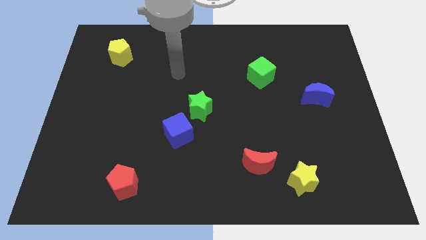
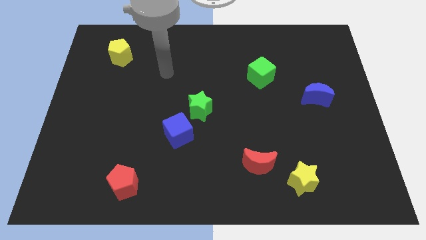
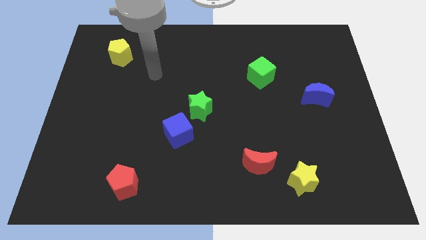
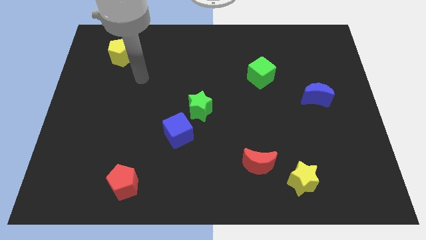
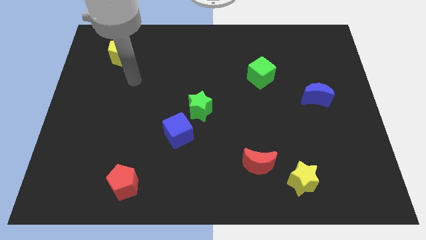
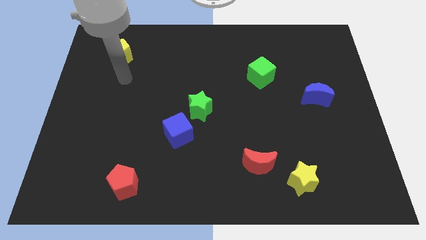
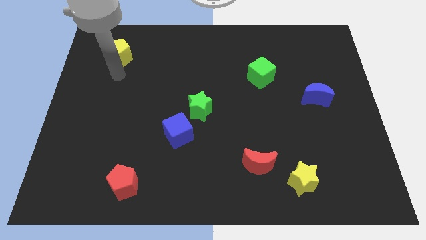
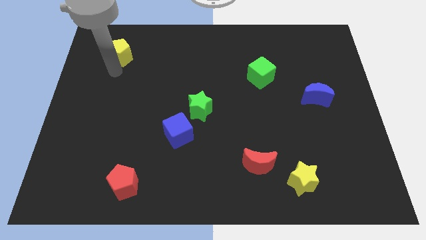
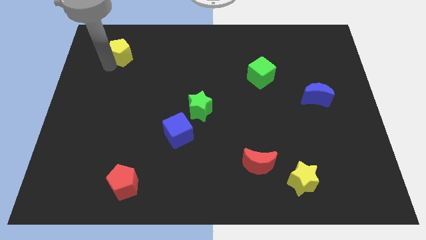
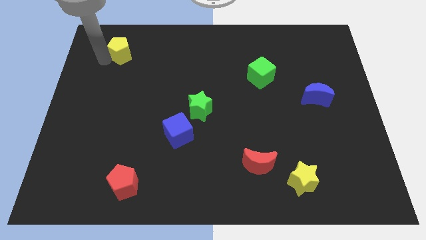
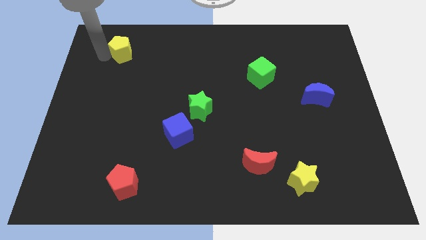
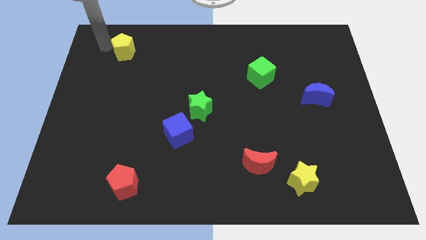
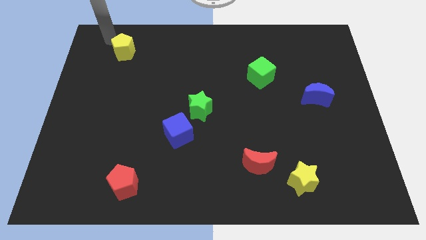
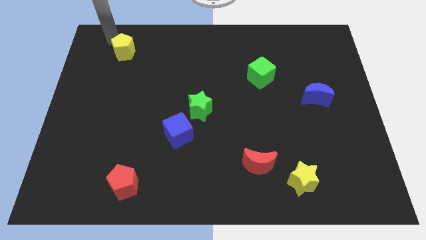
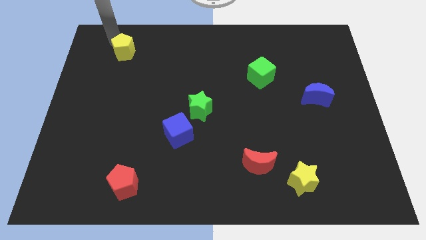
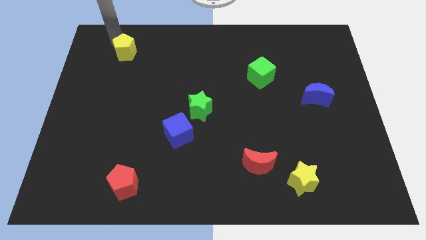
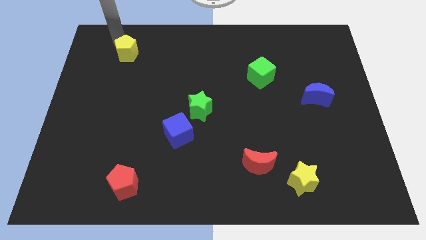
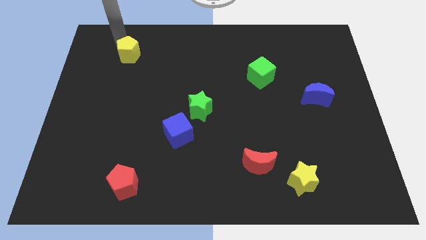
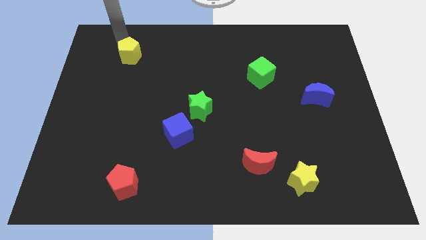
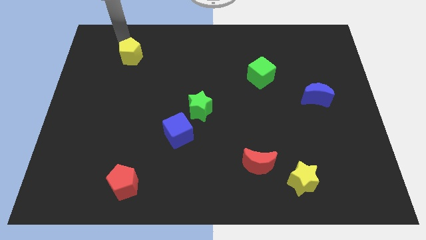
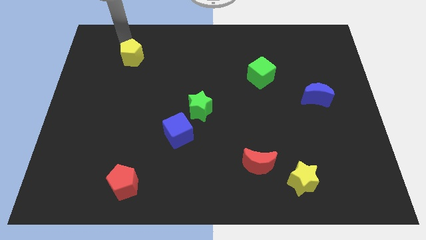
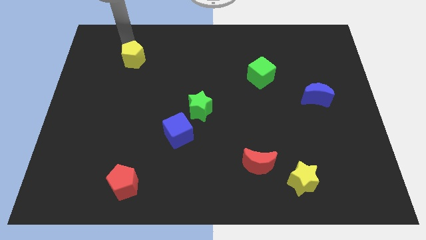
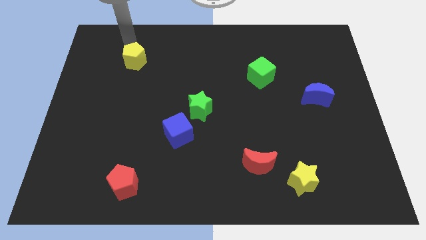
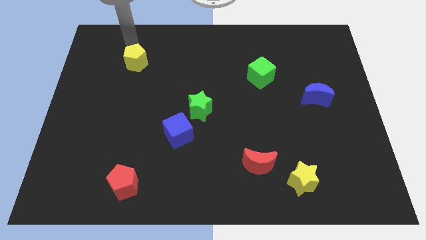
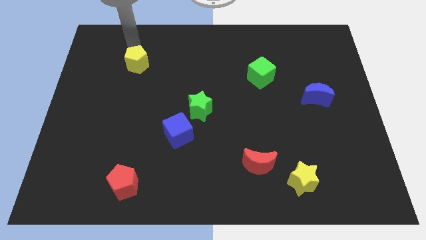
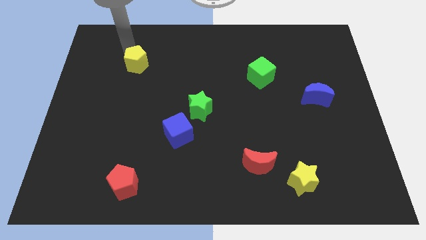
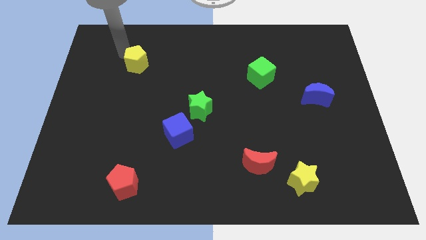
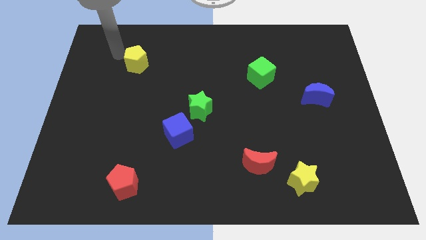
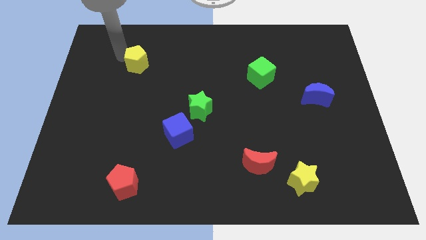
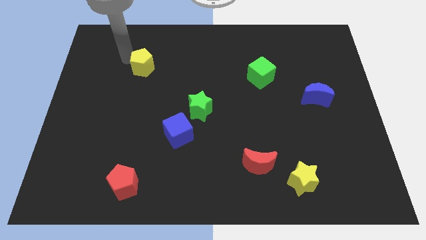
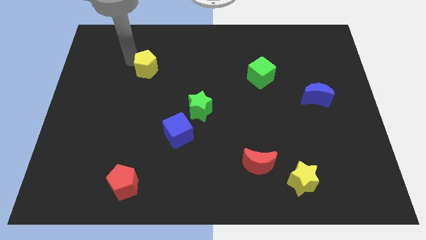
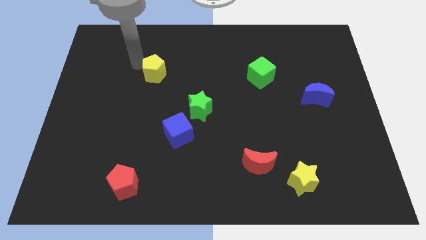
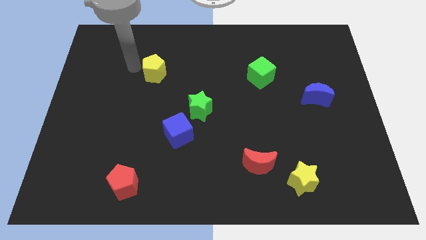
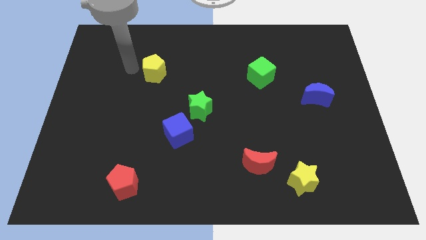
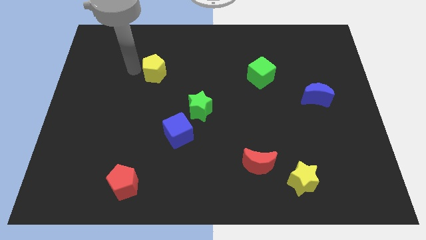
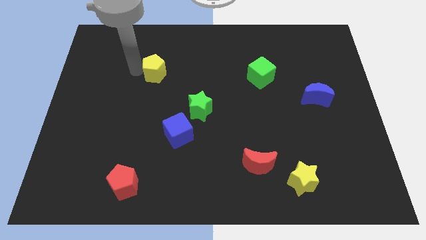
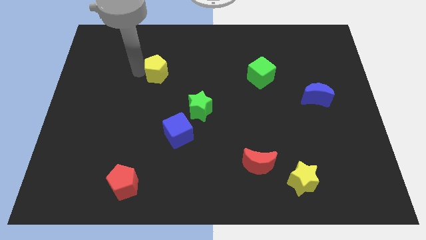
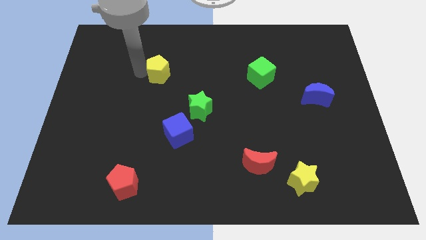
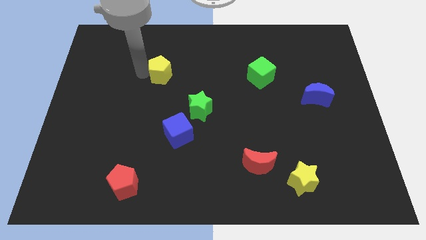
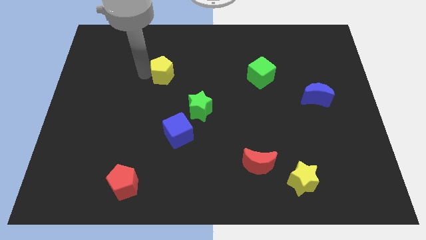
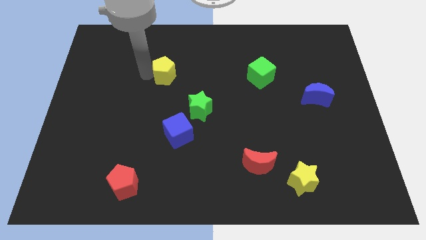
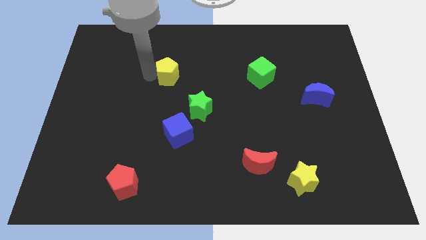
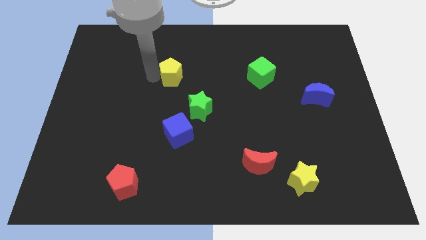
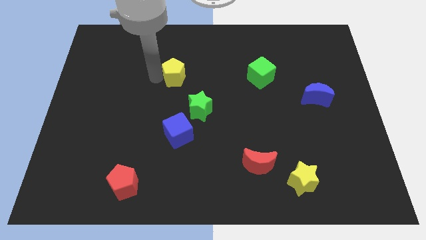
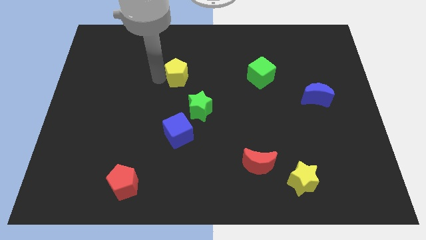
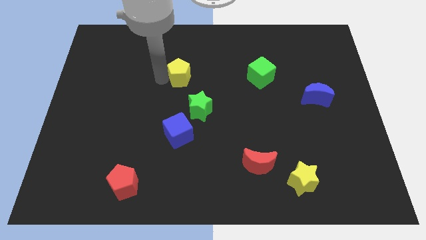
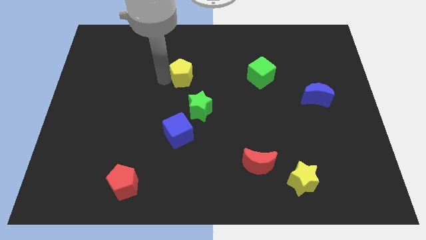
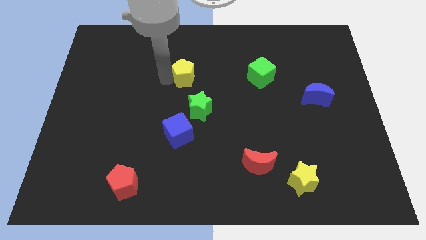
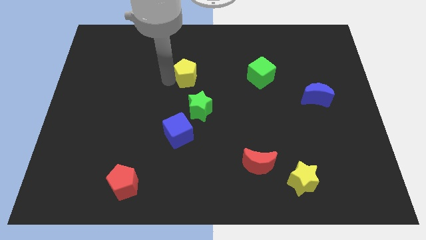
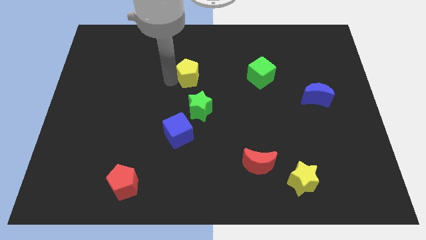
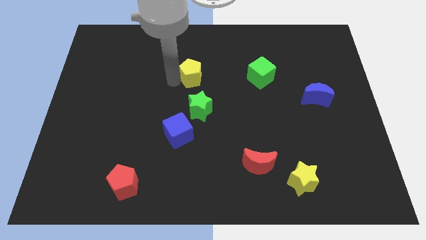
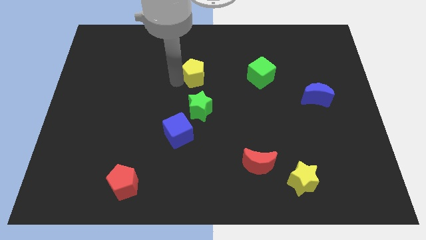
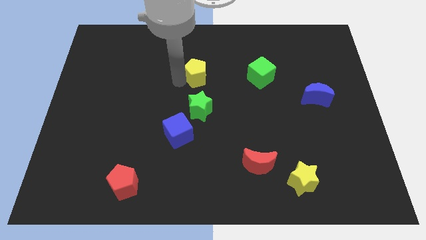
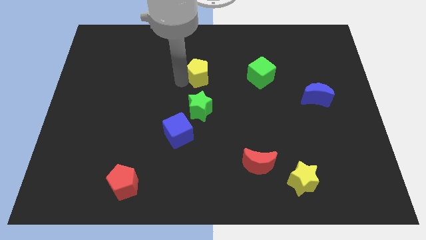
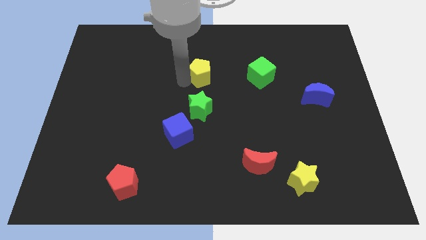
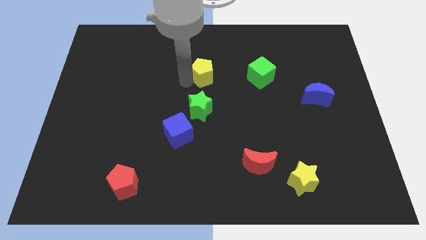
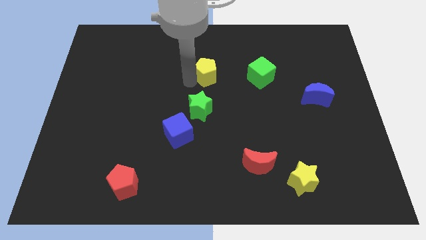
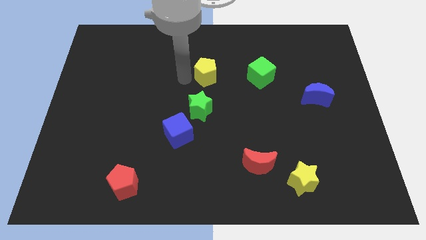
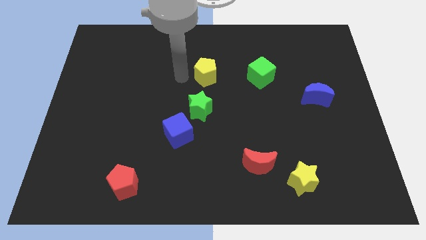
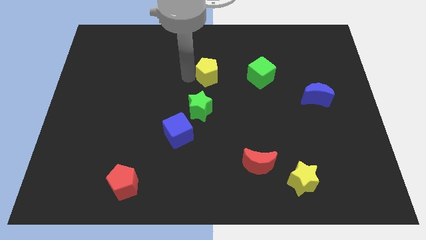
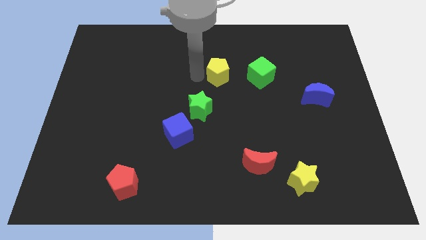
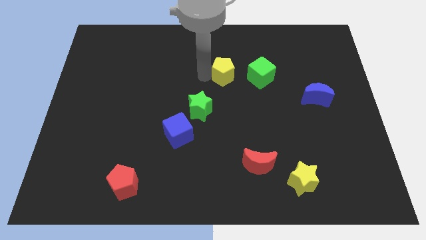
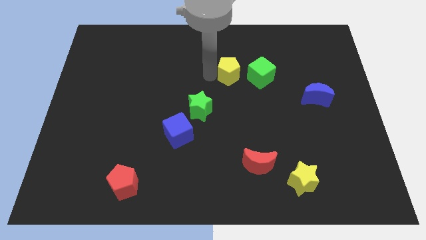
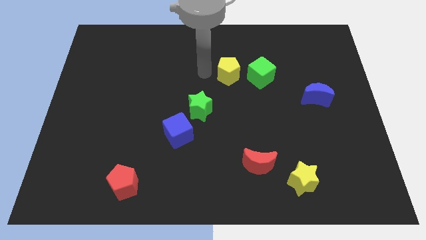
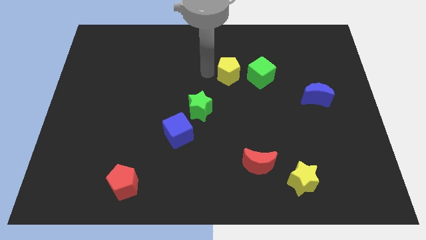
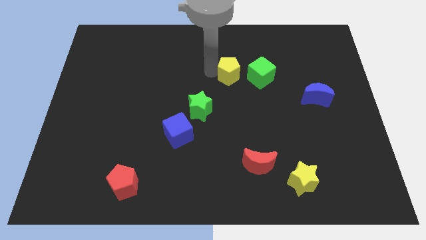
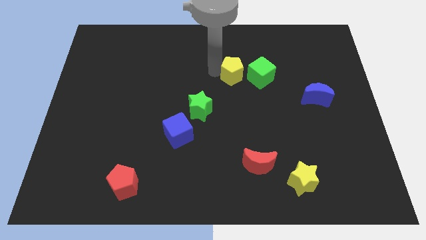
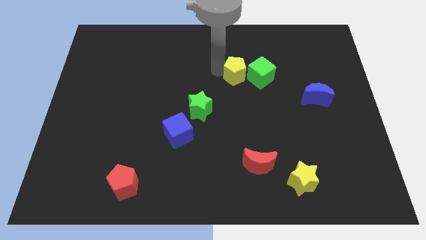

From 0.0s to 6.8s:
push the yellow pentagon to the green cube

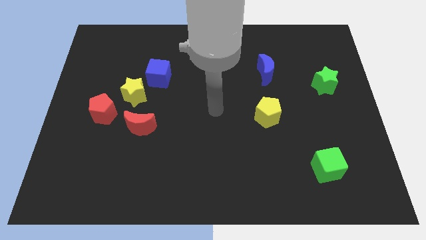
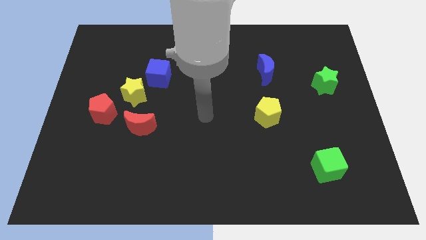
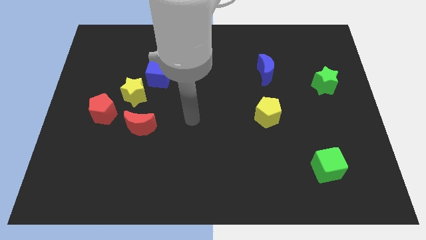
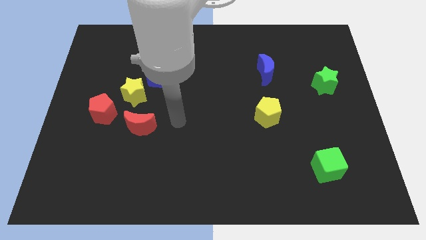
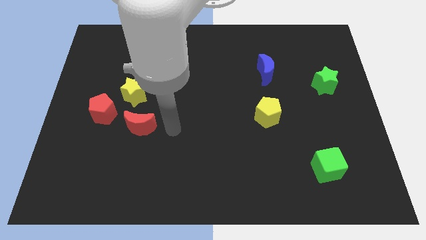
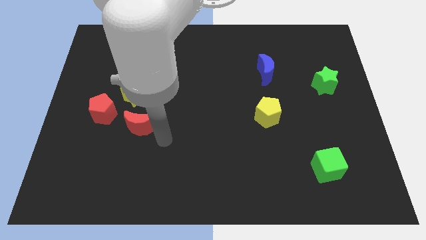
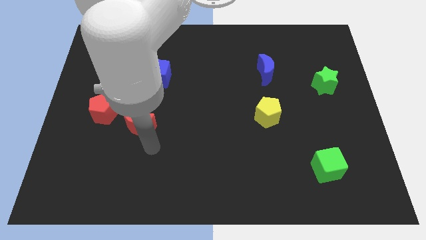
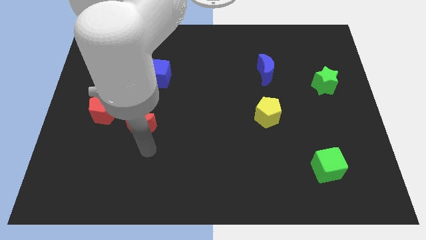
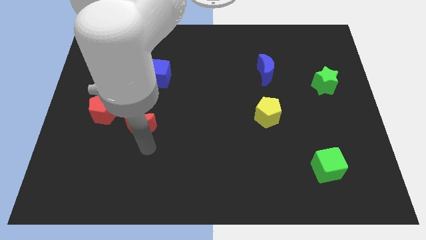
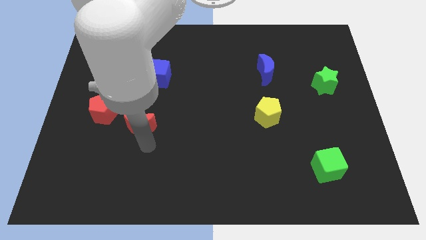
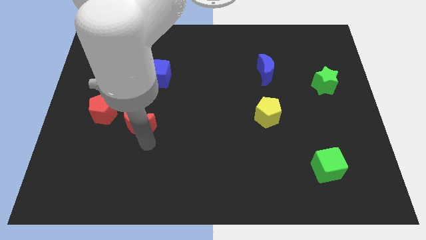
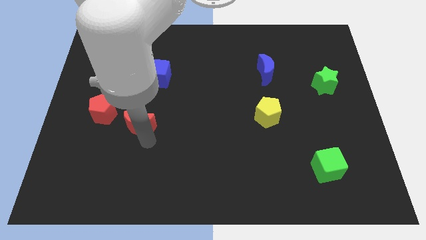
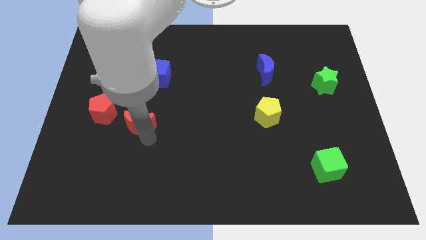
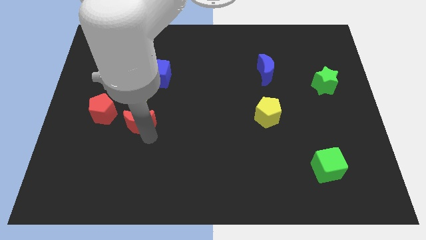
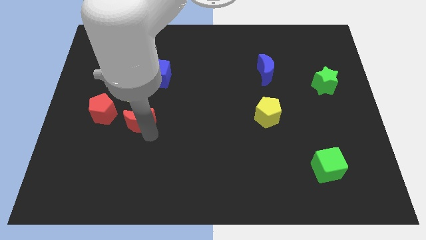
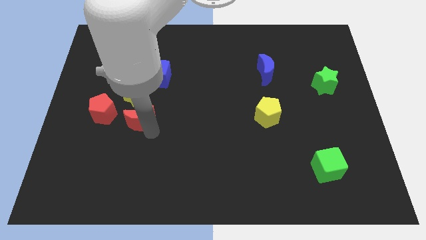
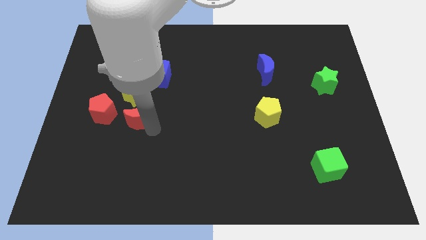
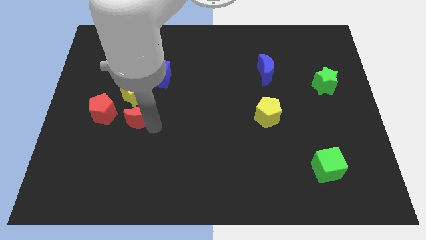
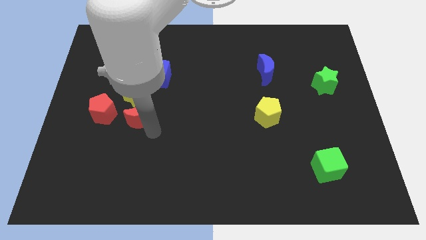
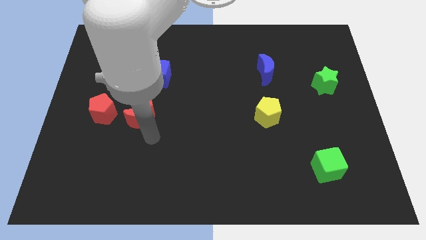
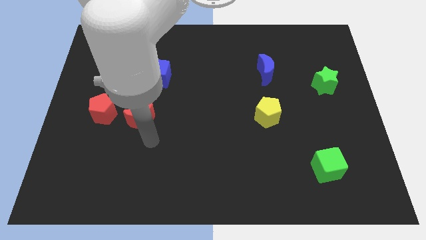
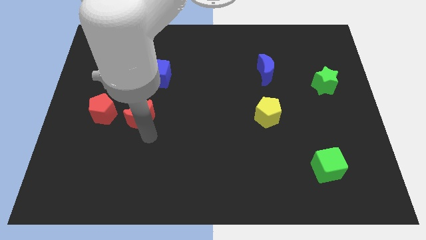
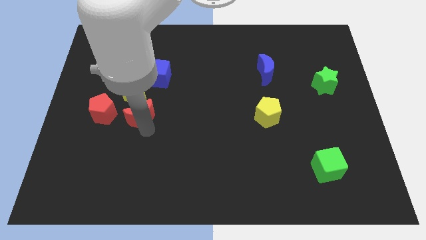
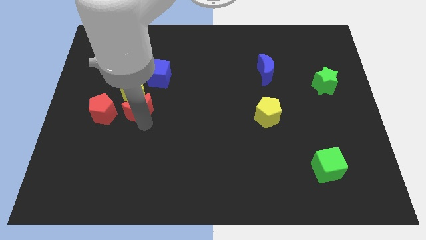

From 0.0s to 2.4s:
slide the red moon towards the yellow star
